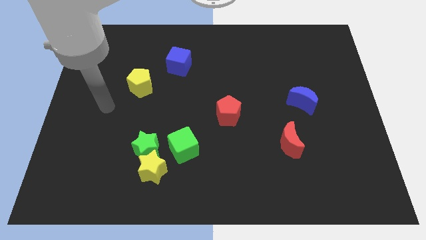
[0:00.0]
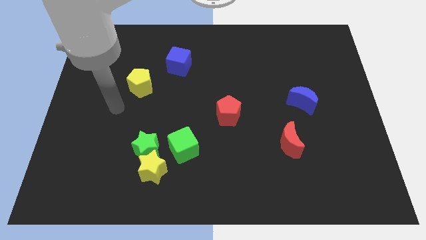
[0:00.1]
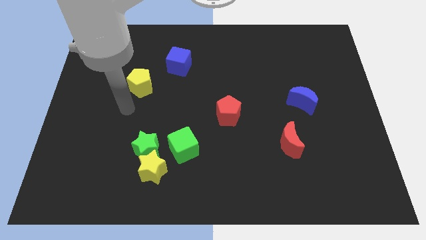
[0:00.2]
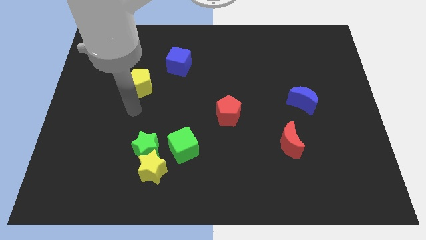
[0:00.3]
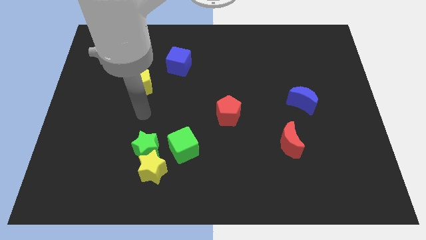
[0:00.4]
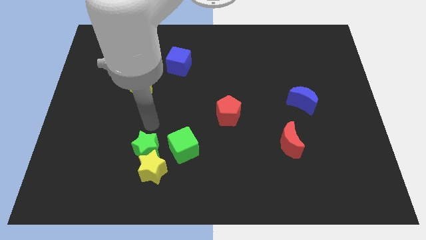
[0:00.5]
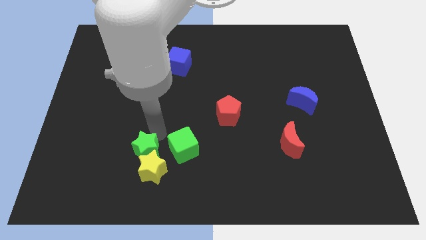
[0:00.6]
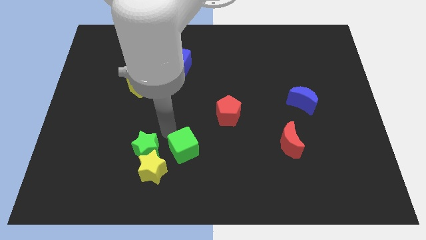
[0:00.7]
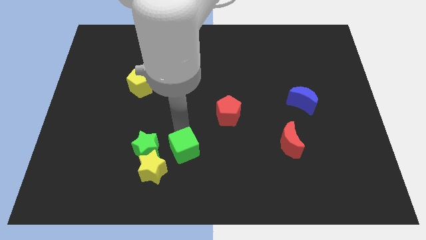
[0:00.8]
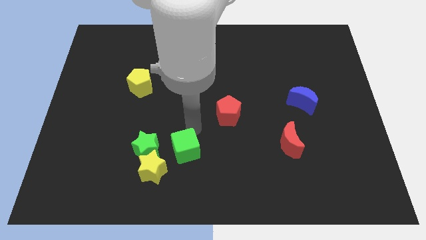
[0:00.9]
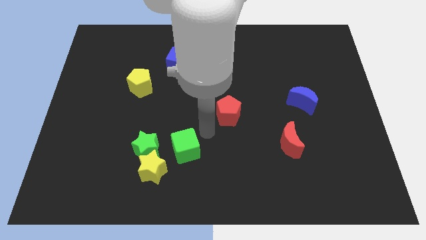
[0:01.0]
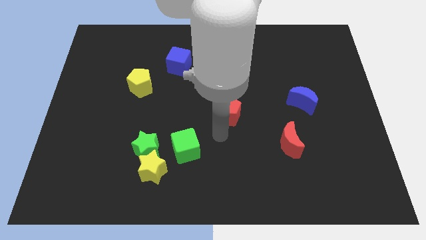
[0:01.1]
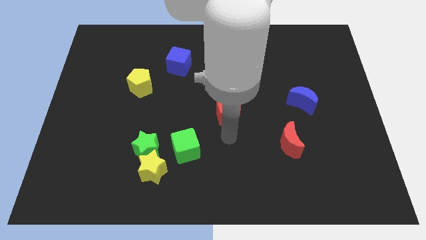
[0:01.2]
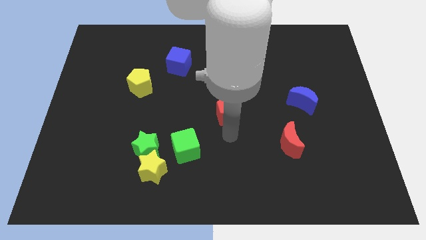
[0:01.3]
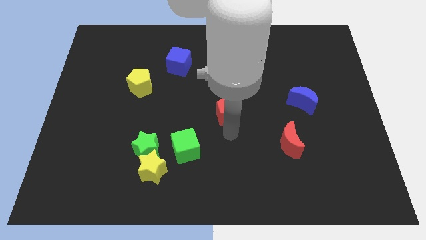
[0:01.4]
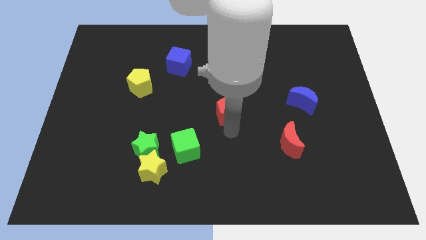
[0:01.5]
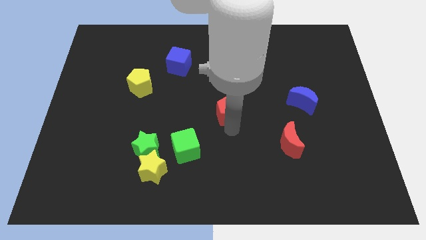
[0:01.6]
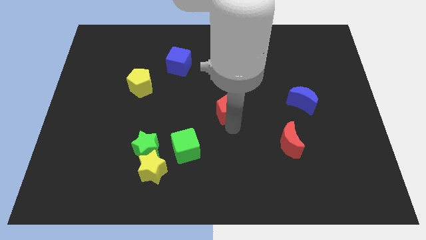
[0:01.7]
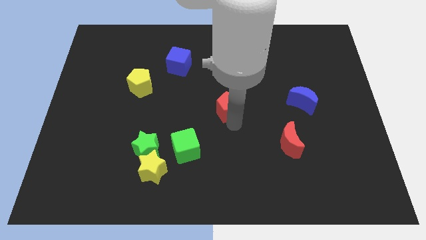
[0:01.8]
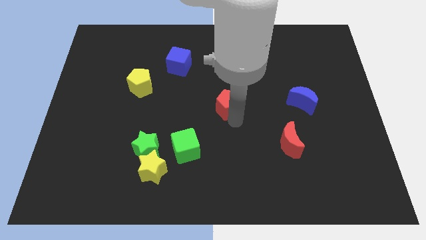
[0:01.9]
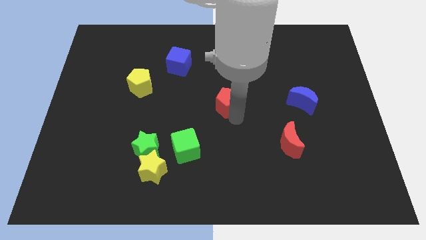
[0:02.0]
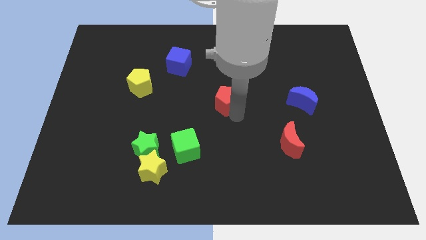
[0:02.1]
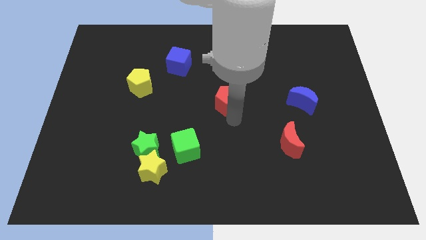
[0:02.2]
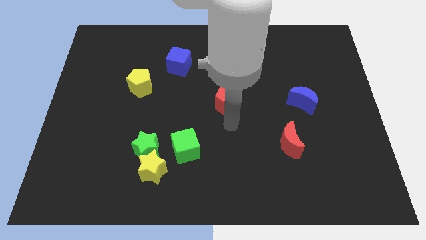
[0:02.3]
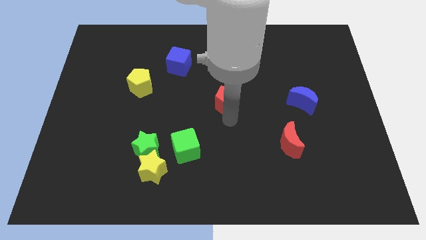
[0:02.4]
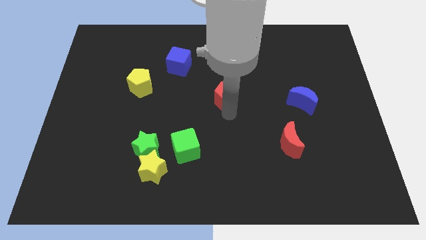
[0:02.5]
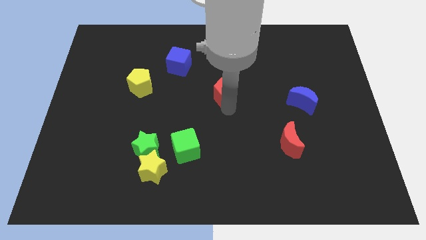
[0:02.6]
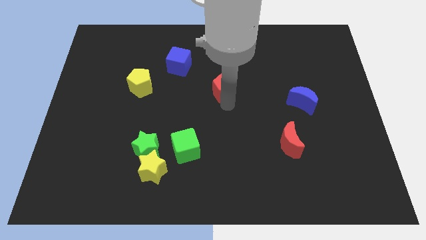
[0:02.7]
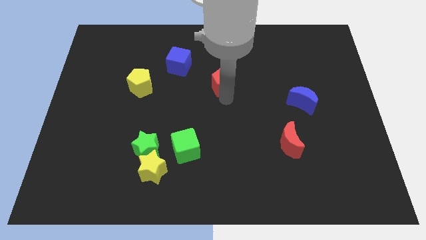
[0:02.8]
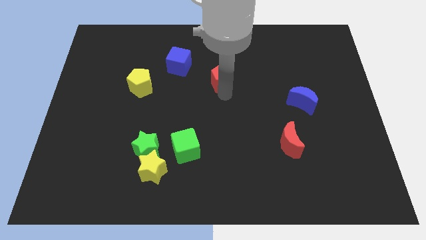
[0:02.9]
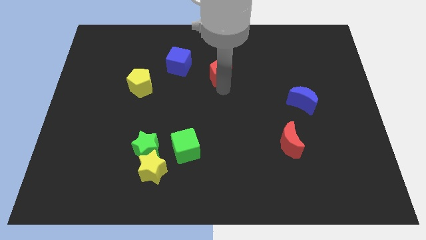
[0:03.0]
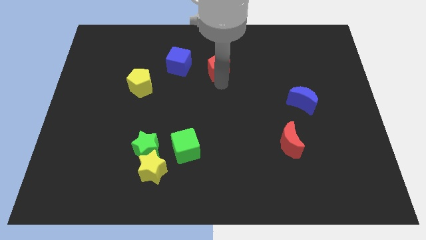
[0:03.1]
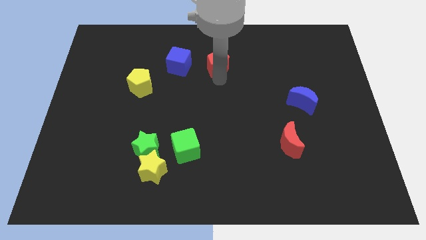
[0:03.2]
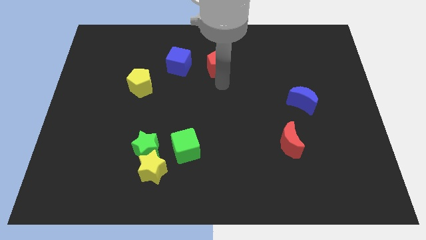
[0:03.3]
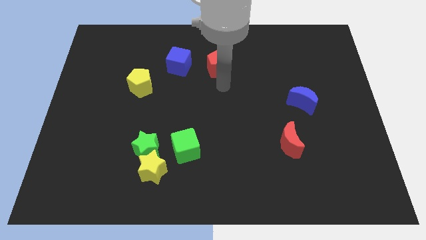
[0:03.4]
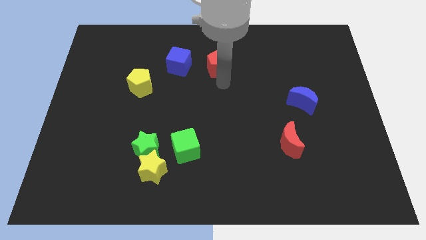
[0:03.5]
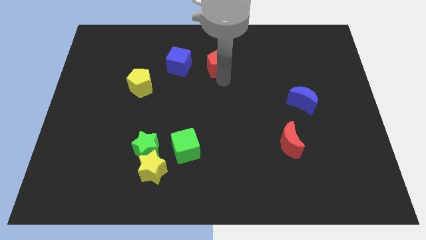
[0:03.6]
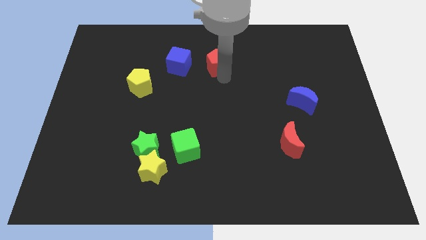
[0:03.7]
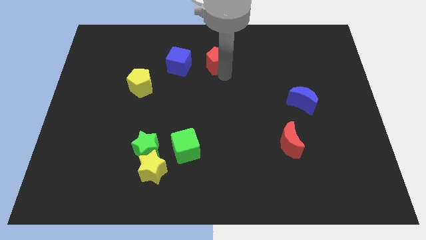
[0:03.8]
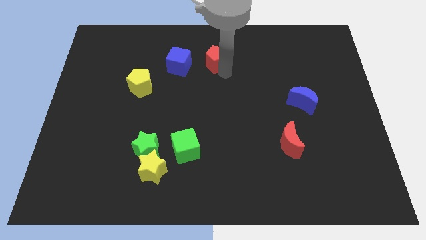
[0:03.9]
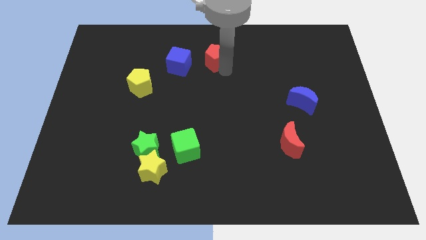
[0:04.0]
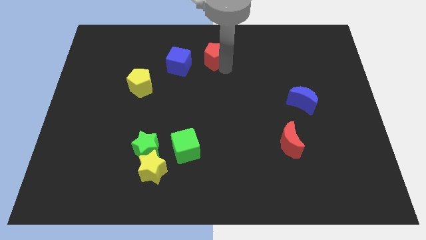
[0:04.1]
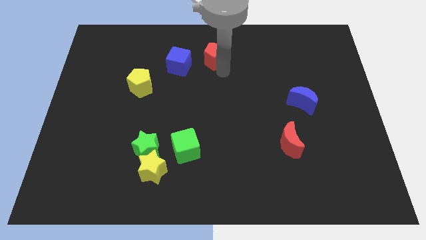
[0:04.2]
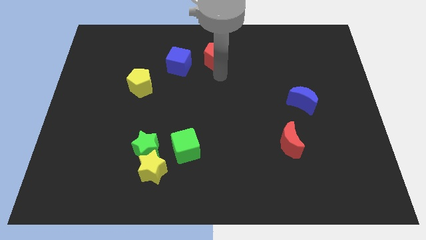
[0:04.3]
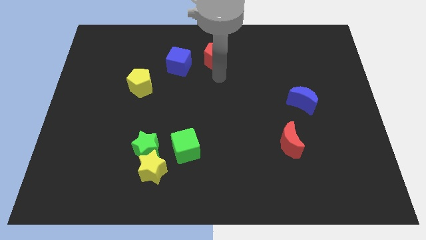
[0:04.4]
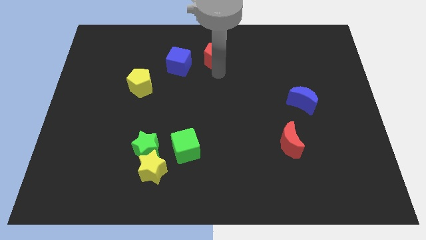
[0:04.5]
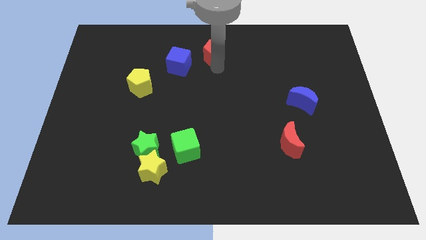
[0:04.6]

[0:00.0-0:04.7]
put the red pentagon to the top

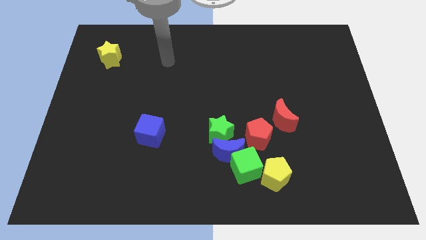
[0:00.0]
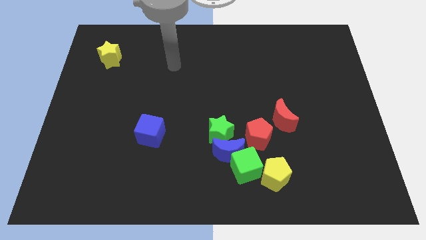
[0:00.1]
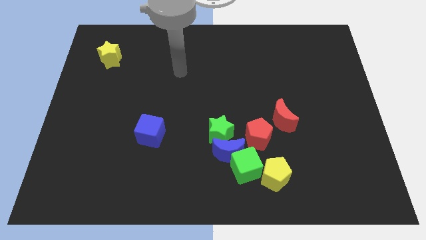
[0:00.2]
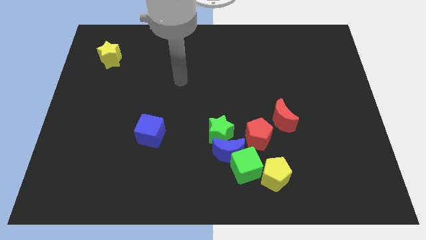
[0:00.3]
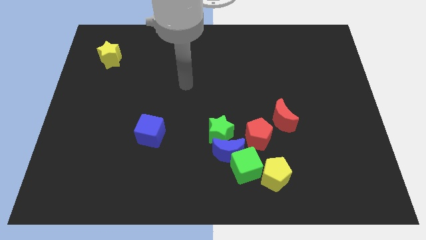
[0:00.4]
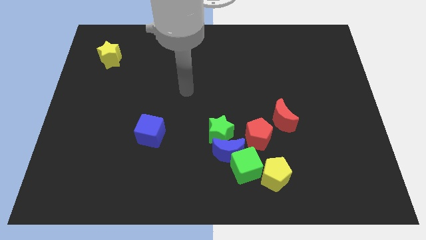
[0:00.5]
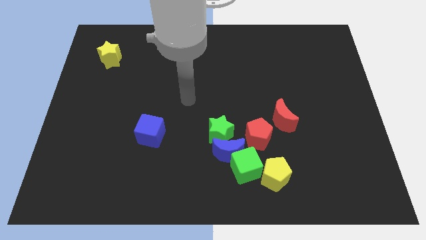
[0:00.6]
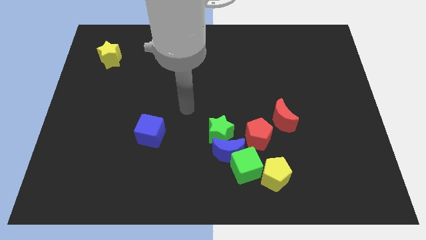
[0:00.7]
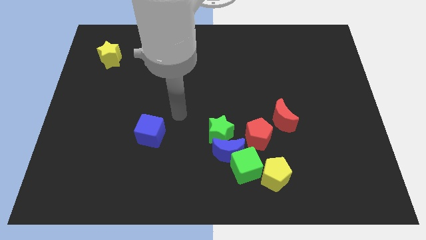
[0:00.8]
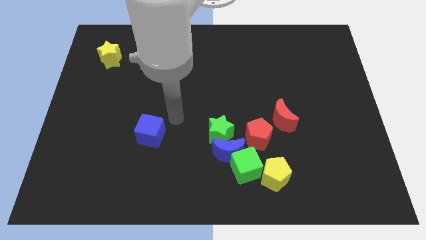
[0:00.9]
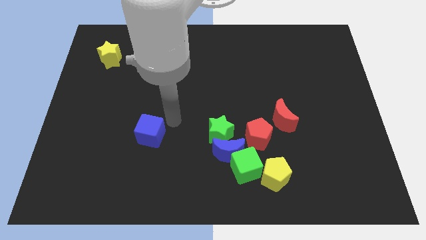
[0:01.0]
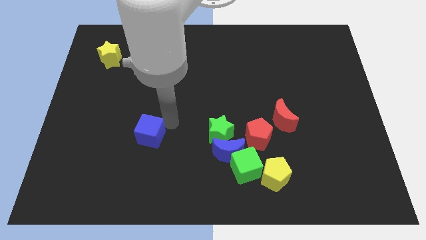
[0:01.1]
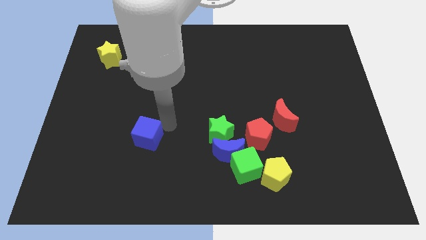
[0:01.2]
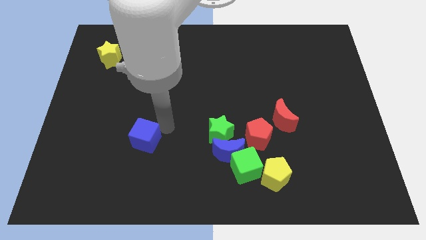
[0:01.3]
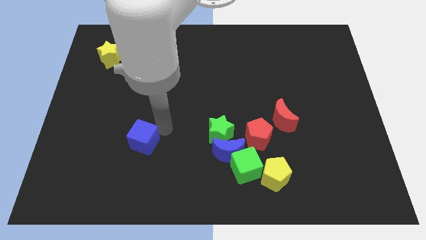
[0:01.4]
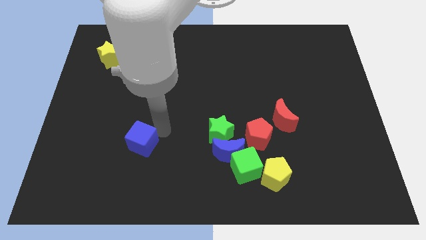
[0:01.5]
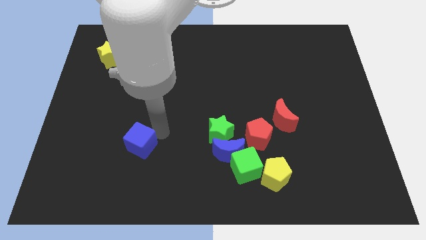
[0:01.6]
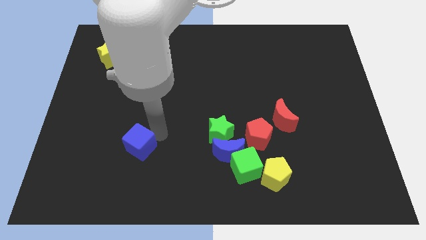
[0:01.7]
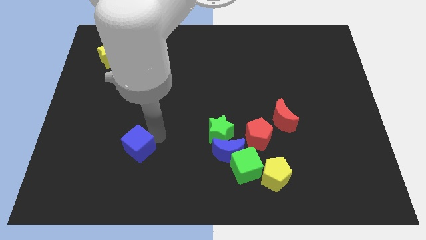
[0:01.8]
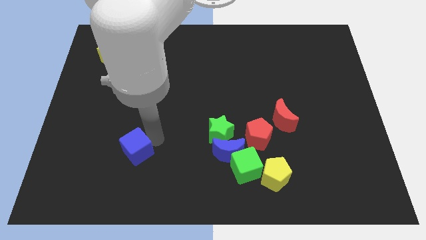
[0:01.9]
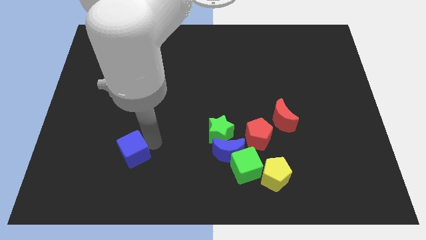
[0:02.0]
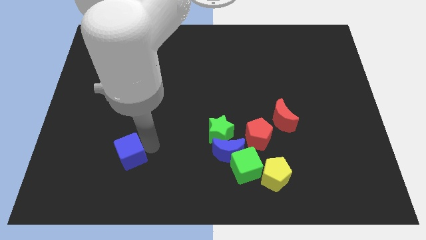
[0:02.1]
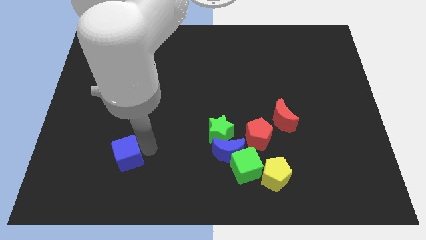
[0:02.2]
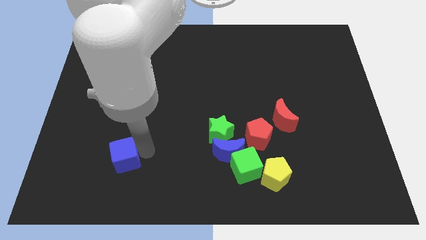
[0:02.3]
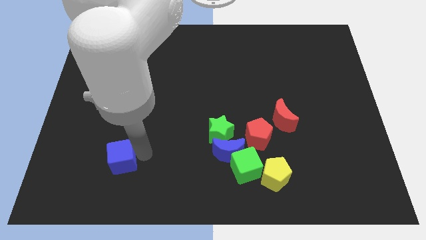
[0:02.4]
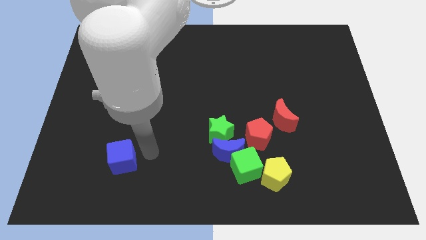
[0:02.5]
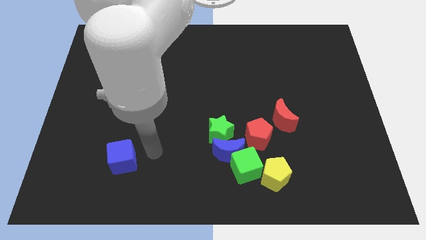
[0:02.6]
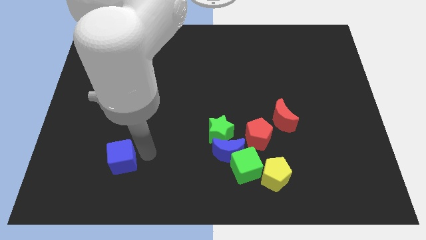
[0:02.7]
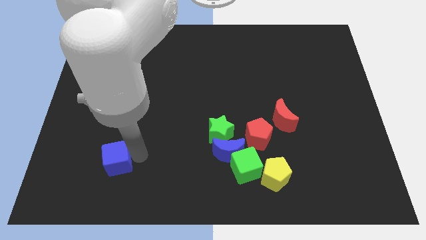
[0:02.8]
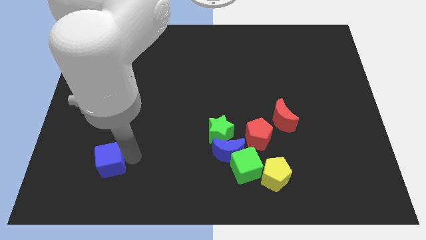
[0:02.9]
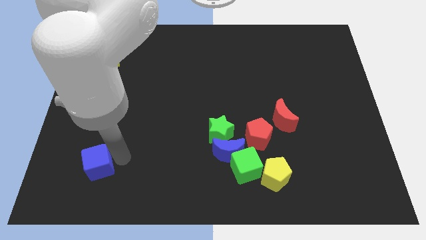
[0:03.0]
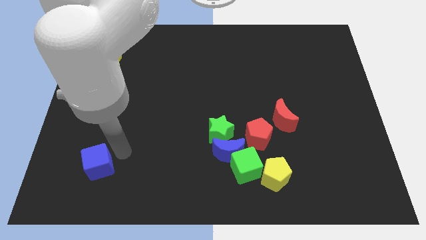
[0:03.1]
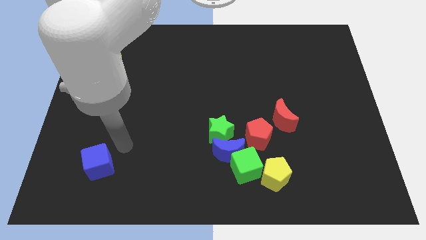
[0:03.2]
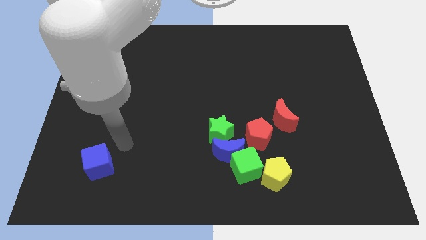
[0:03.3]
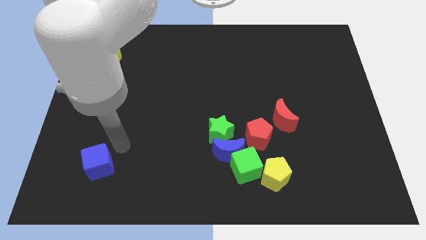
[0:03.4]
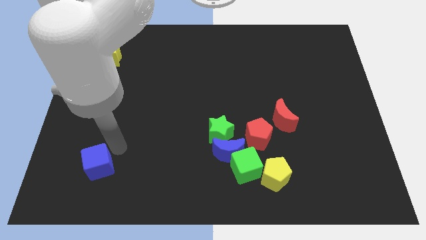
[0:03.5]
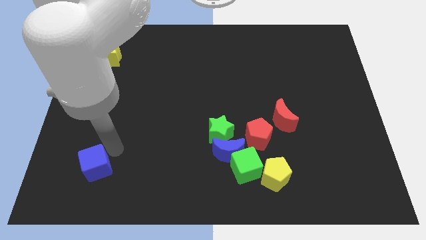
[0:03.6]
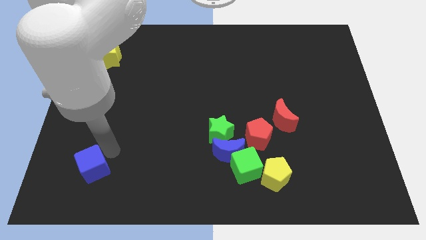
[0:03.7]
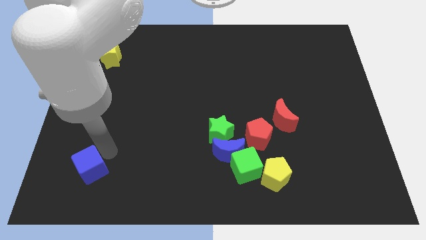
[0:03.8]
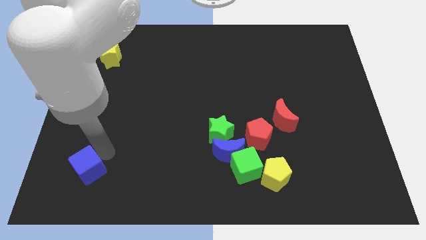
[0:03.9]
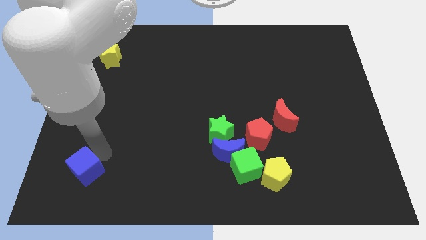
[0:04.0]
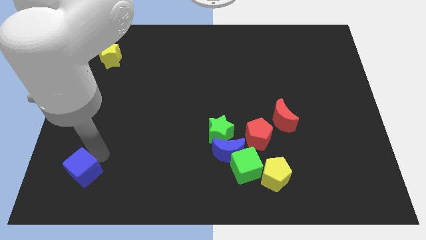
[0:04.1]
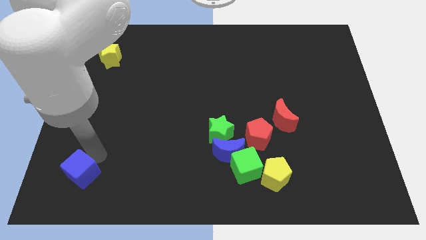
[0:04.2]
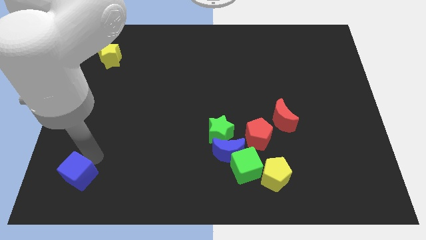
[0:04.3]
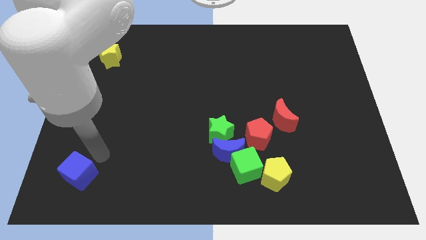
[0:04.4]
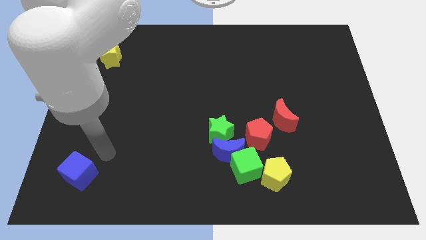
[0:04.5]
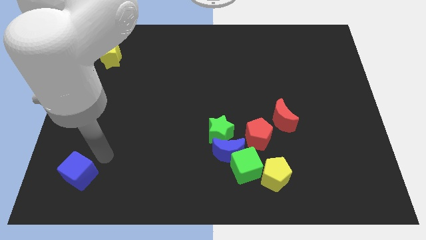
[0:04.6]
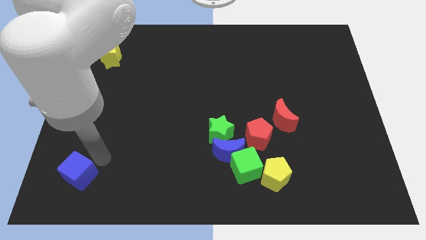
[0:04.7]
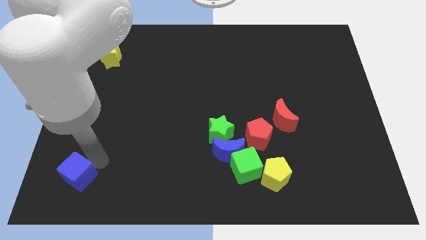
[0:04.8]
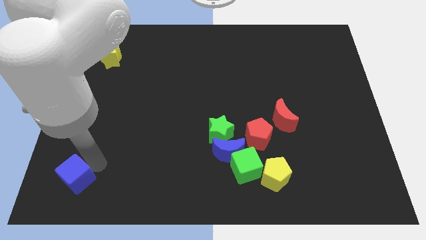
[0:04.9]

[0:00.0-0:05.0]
put the blue cube to the bottom left
